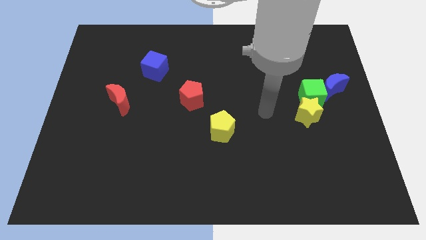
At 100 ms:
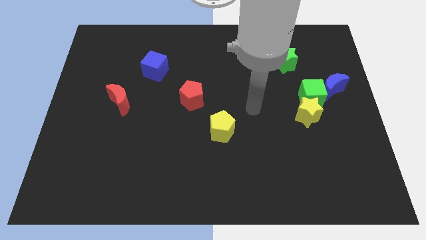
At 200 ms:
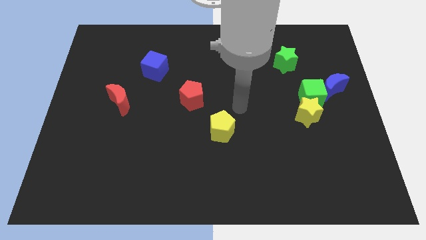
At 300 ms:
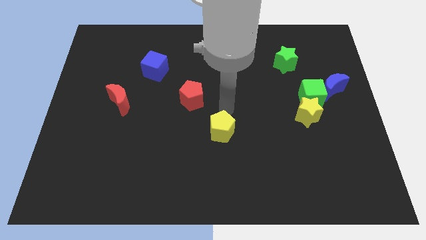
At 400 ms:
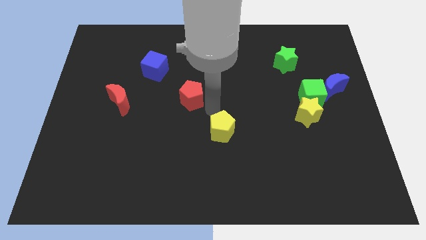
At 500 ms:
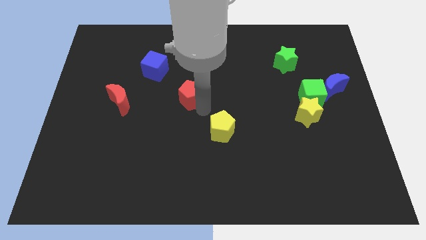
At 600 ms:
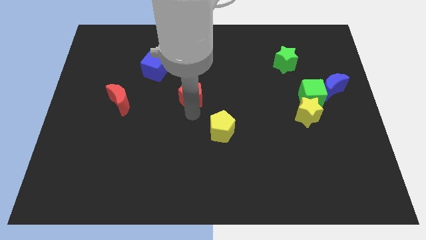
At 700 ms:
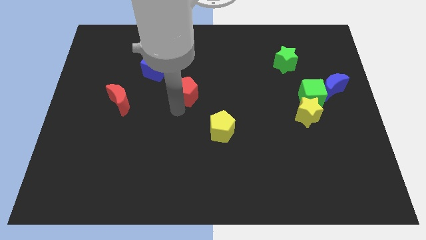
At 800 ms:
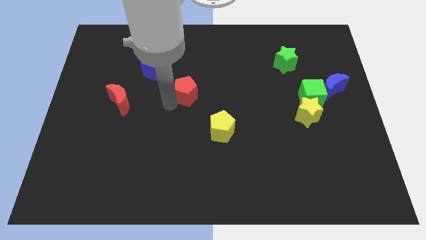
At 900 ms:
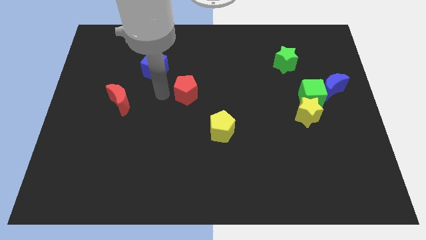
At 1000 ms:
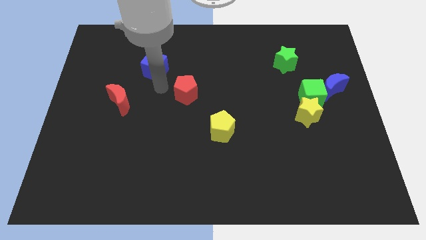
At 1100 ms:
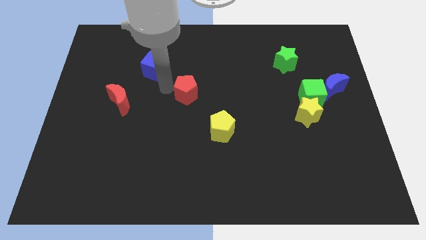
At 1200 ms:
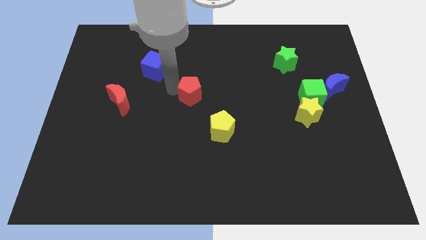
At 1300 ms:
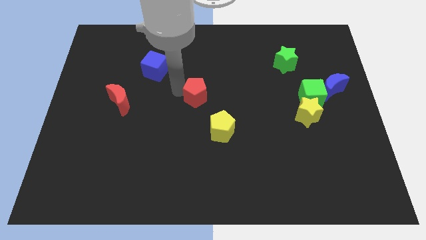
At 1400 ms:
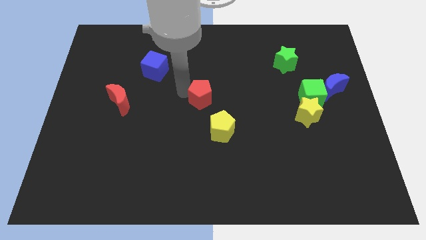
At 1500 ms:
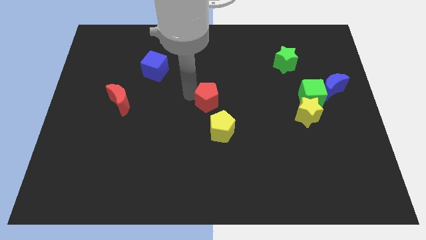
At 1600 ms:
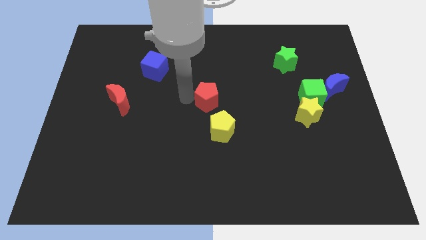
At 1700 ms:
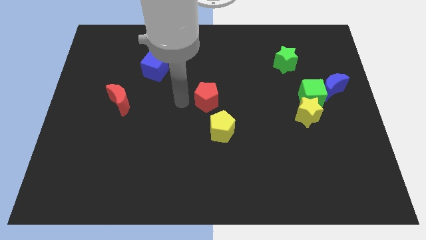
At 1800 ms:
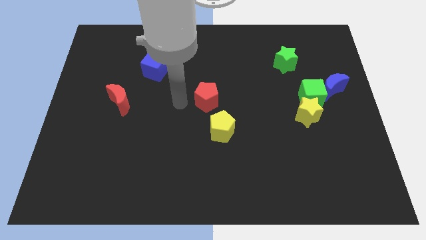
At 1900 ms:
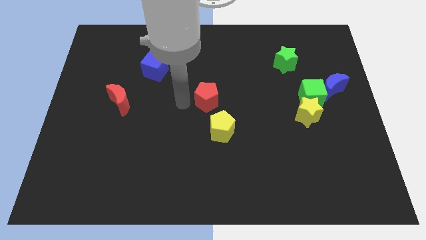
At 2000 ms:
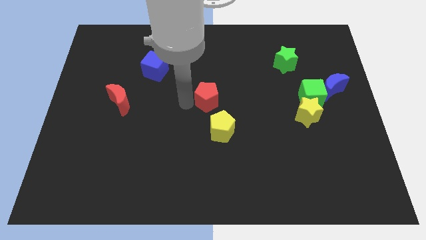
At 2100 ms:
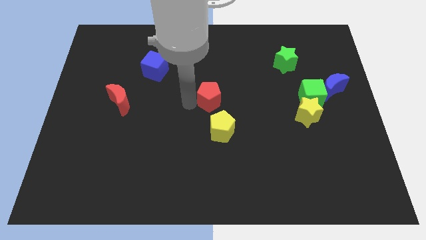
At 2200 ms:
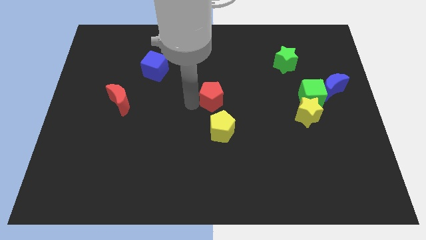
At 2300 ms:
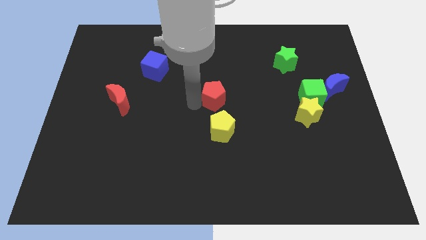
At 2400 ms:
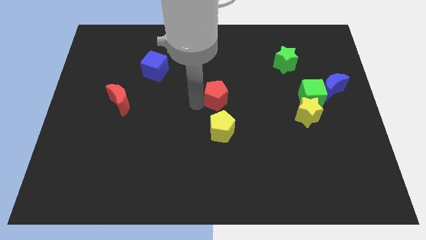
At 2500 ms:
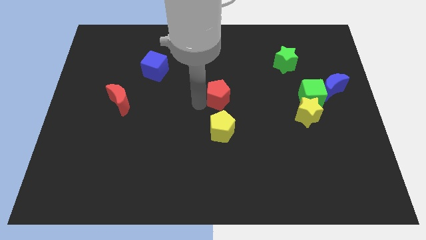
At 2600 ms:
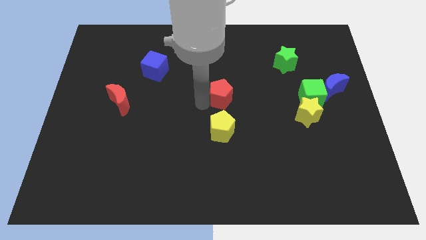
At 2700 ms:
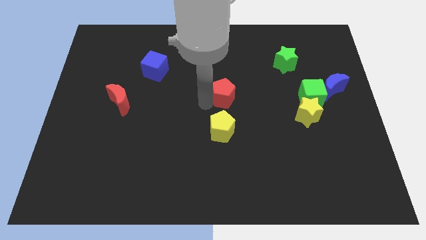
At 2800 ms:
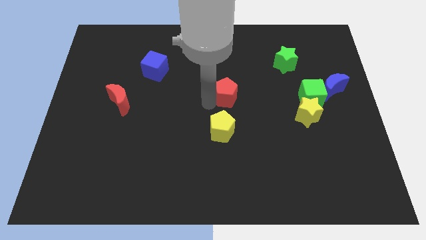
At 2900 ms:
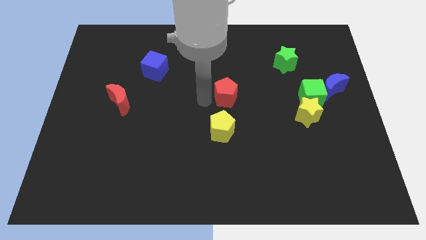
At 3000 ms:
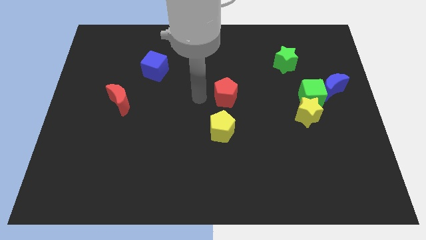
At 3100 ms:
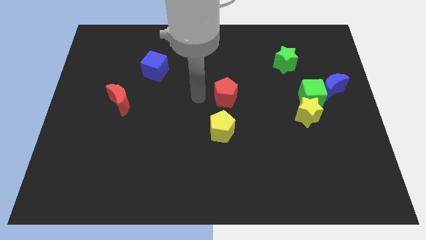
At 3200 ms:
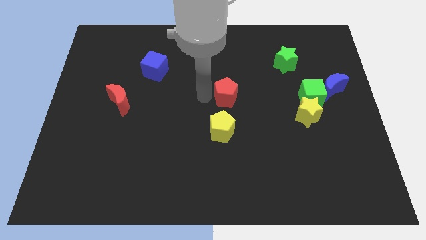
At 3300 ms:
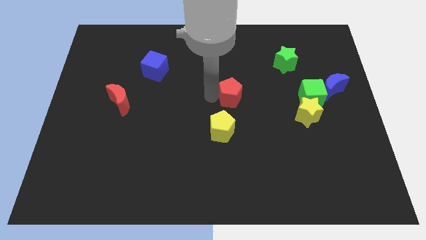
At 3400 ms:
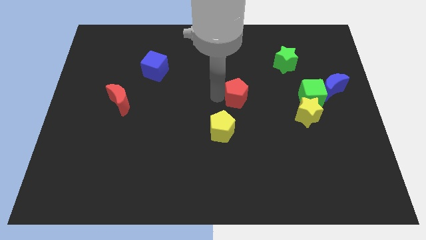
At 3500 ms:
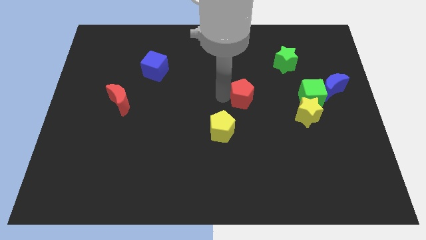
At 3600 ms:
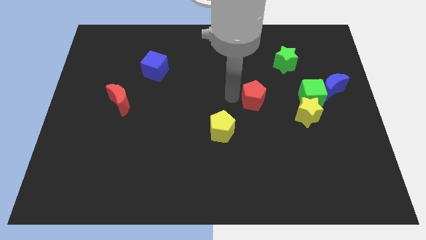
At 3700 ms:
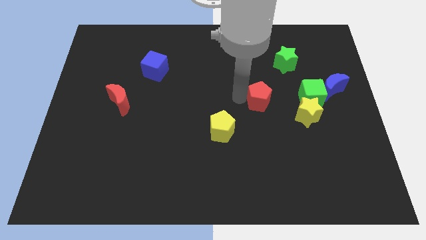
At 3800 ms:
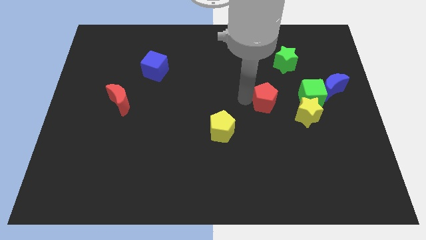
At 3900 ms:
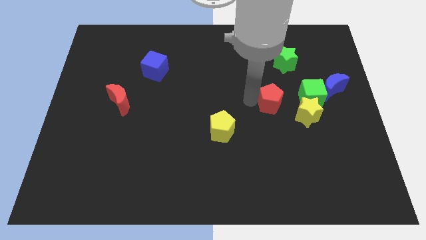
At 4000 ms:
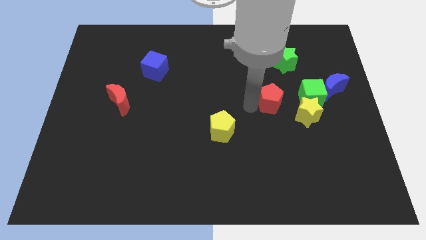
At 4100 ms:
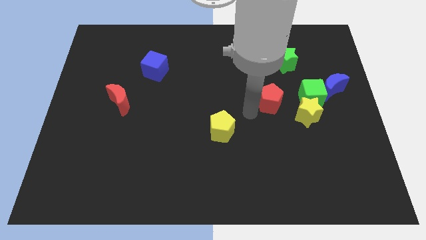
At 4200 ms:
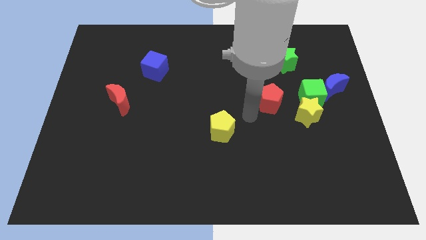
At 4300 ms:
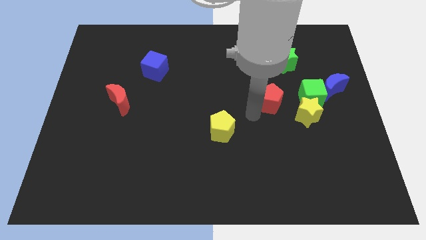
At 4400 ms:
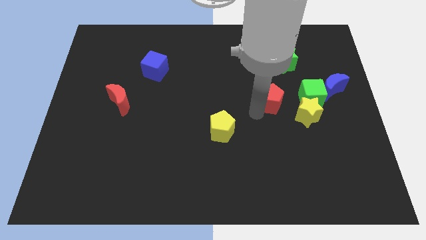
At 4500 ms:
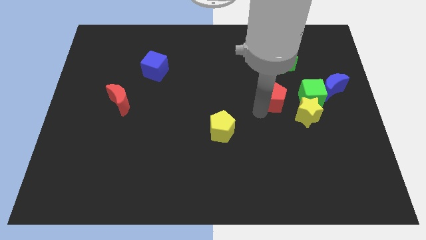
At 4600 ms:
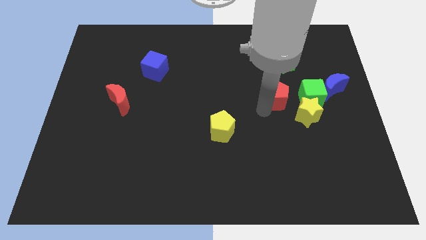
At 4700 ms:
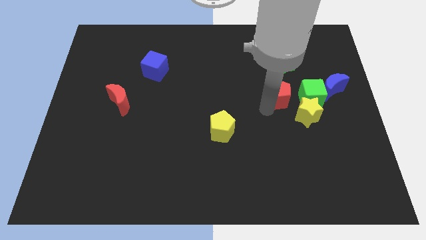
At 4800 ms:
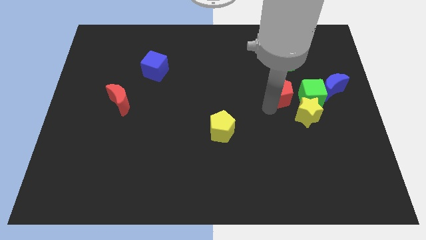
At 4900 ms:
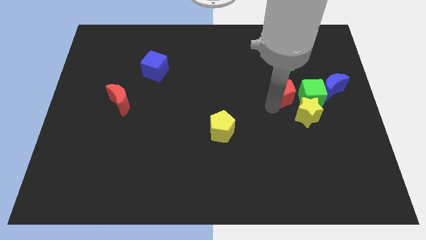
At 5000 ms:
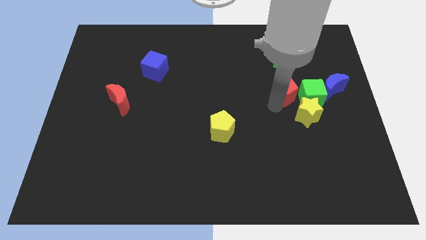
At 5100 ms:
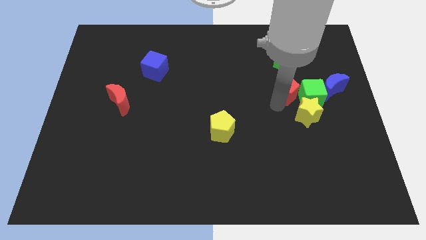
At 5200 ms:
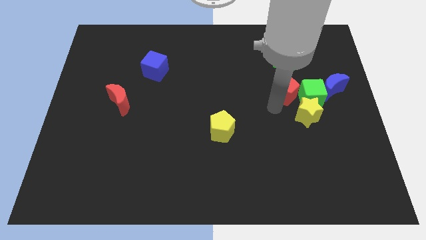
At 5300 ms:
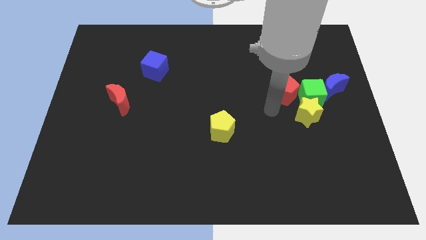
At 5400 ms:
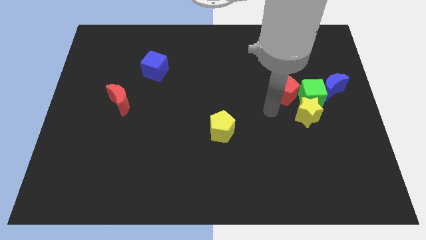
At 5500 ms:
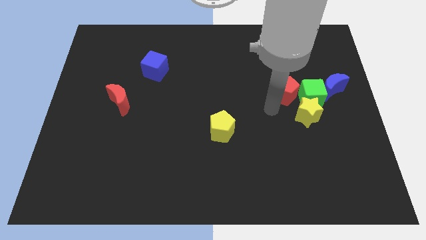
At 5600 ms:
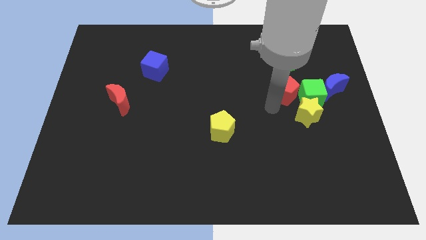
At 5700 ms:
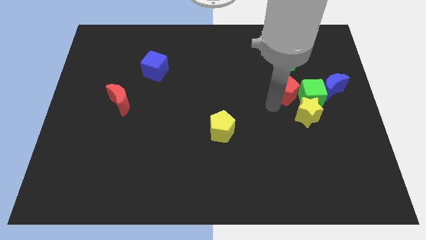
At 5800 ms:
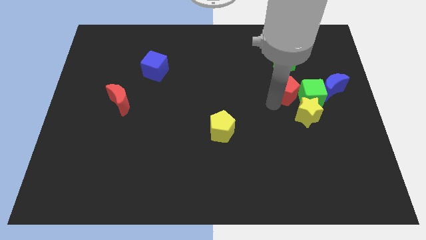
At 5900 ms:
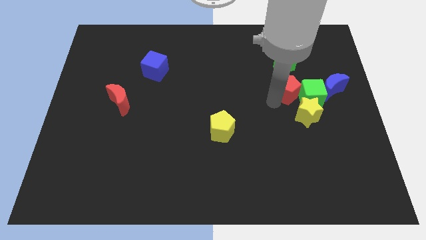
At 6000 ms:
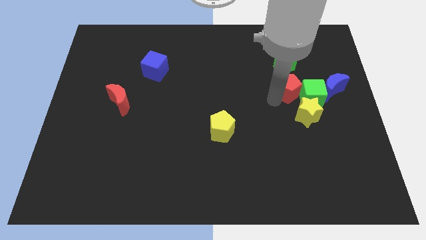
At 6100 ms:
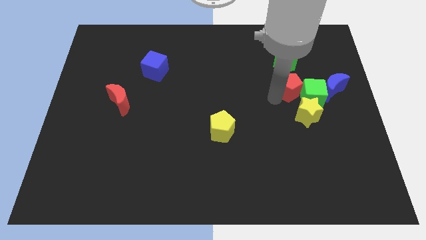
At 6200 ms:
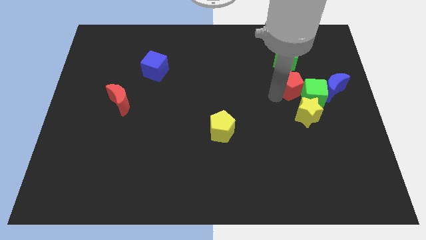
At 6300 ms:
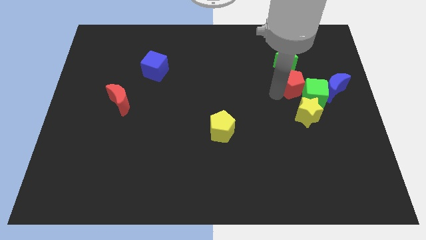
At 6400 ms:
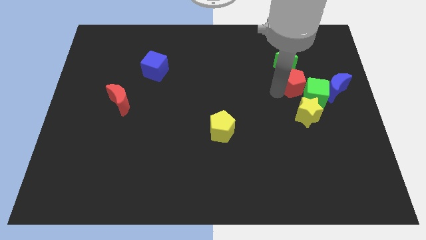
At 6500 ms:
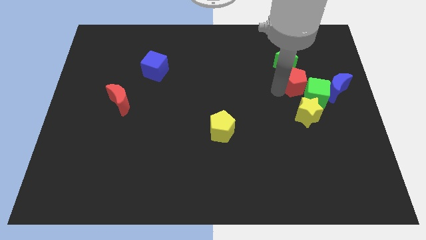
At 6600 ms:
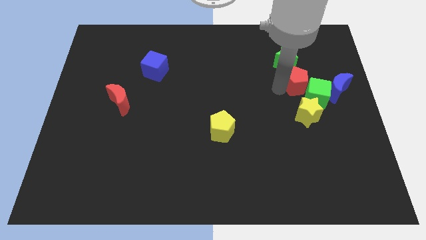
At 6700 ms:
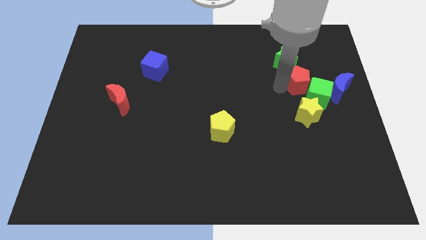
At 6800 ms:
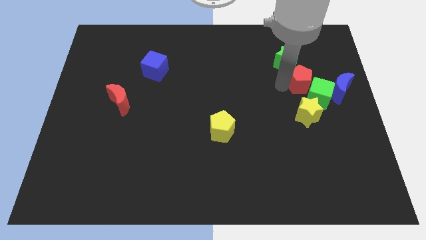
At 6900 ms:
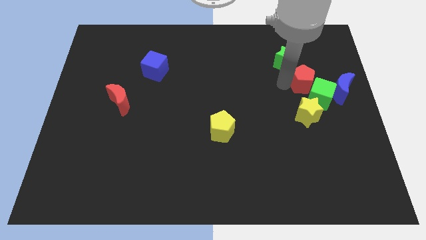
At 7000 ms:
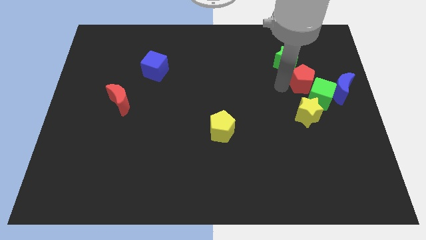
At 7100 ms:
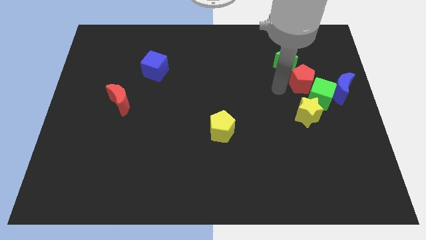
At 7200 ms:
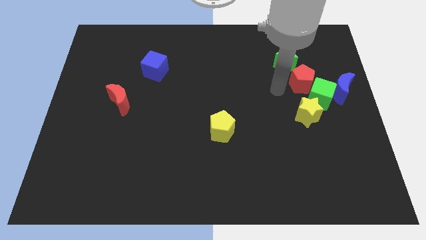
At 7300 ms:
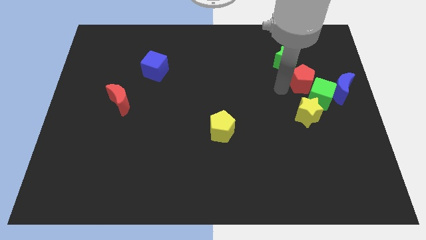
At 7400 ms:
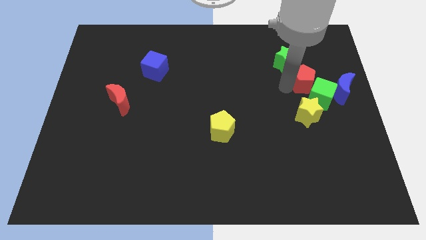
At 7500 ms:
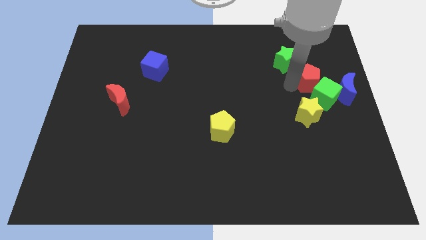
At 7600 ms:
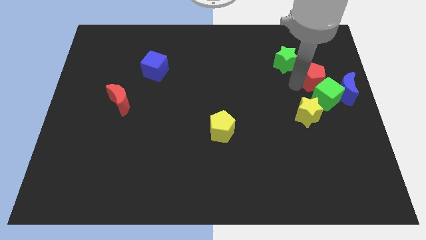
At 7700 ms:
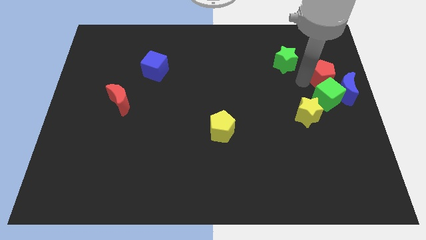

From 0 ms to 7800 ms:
move the red pentagon to the top right side of the green cube
